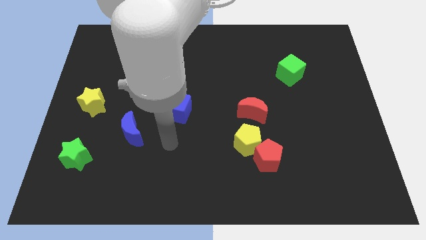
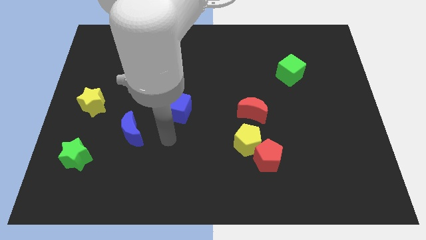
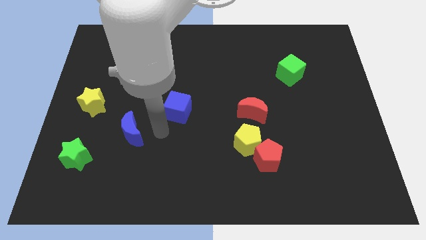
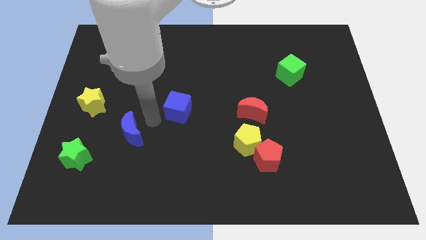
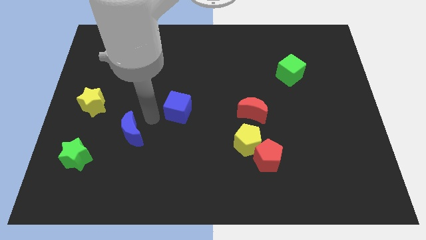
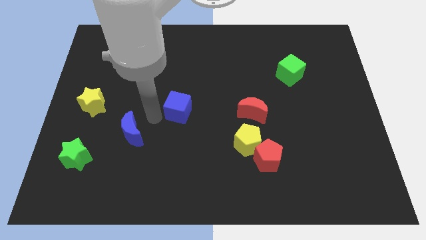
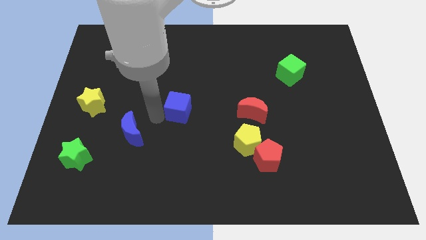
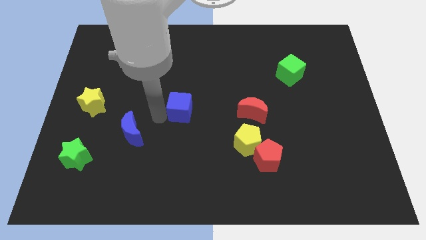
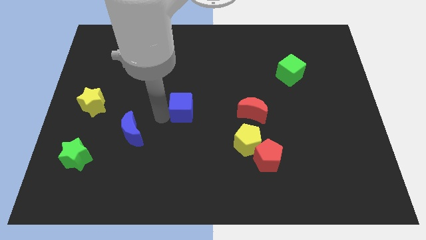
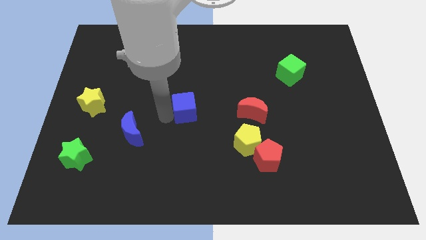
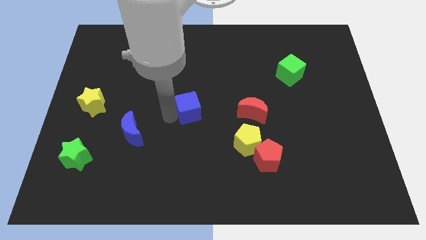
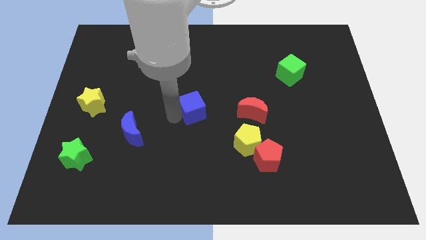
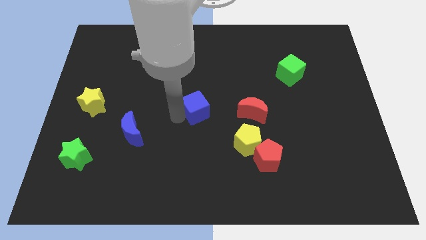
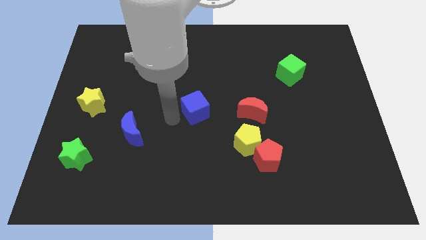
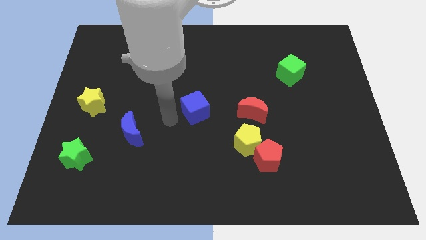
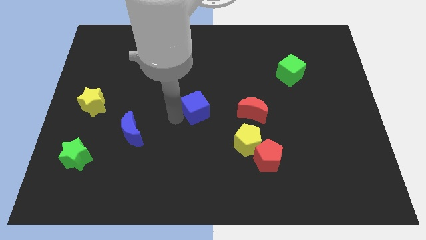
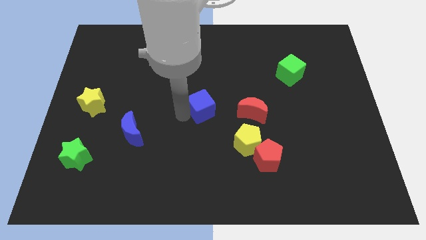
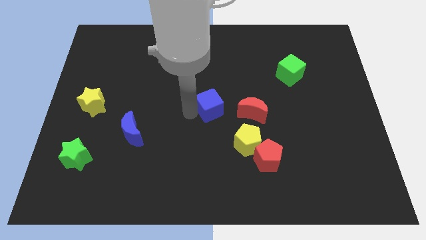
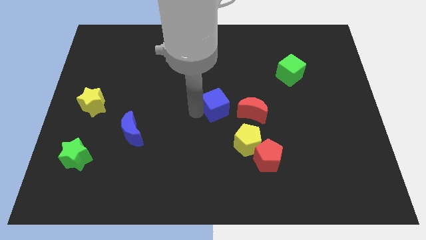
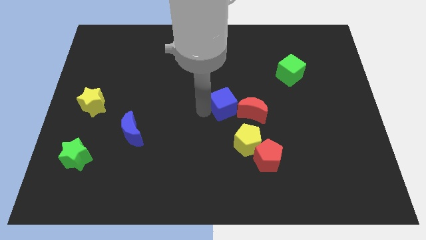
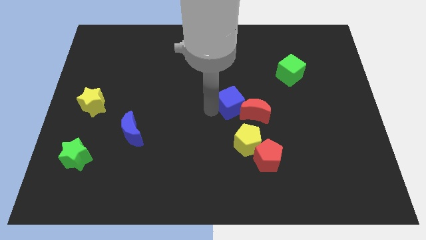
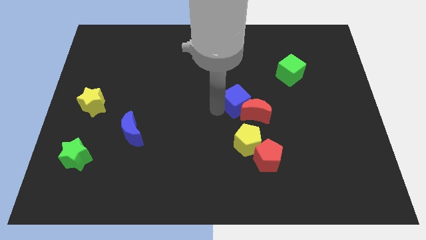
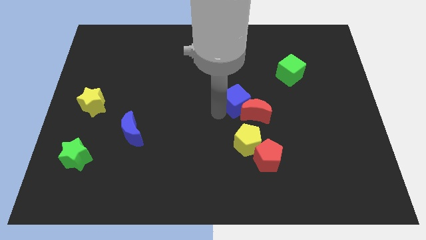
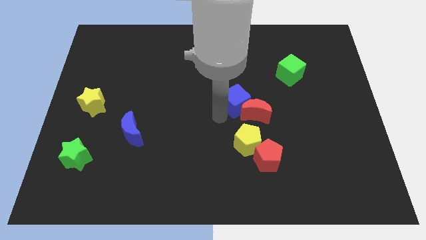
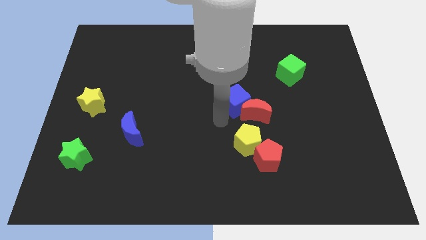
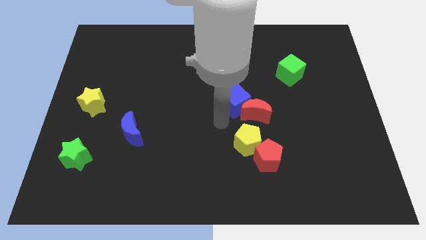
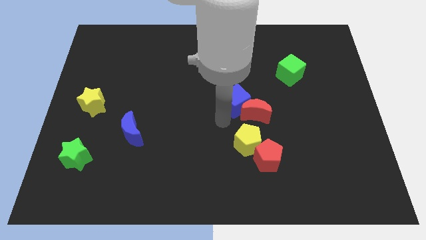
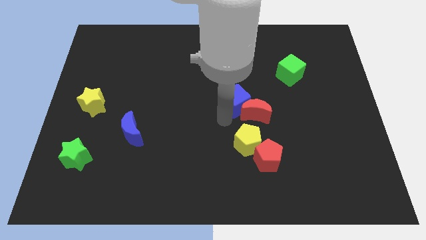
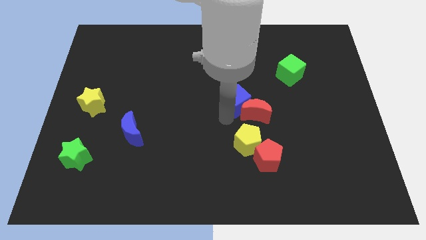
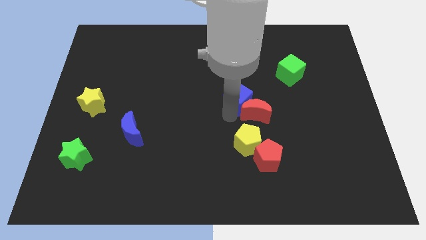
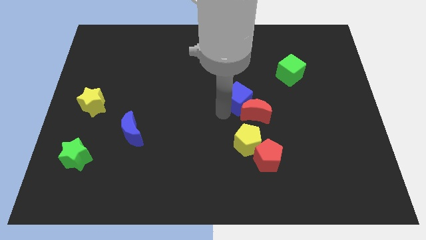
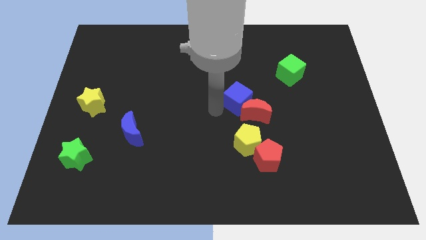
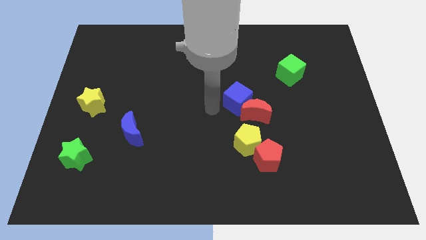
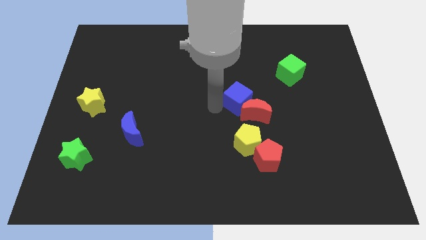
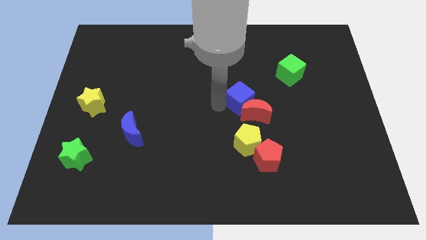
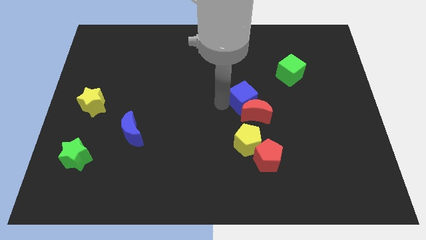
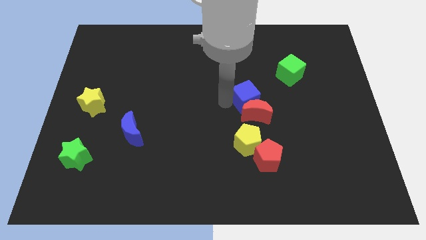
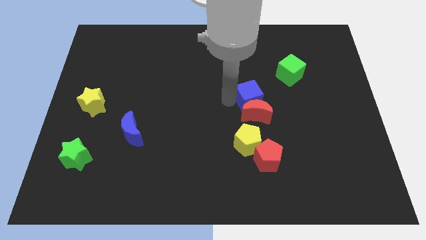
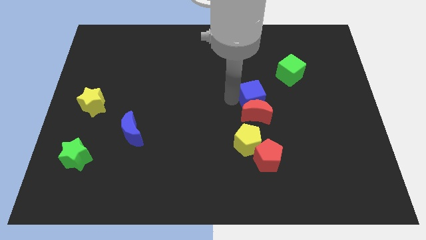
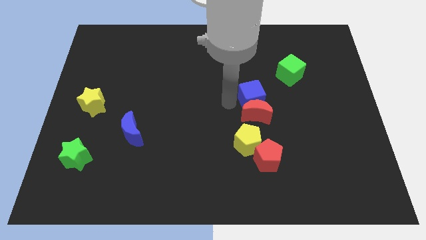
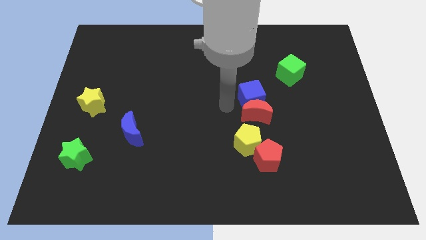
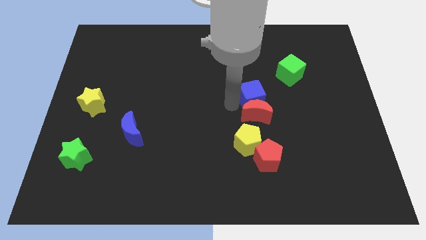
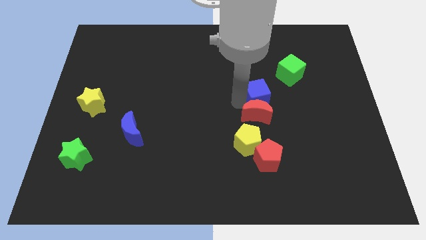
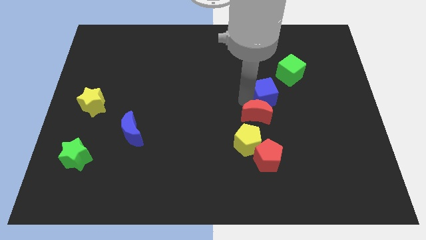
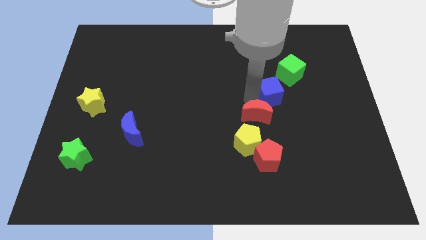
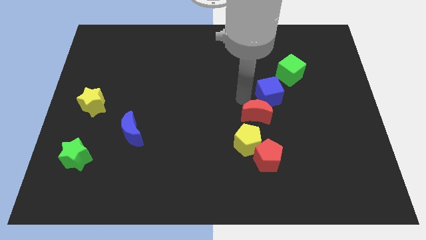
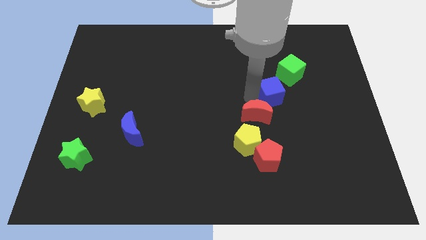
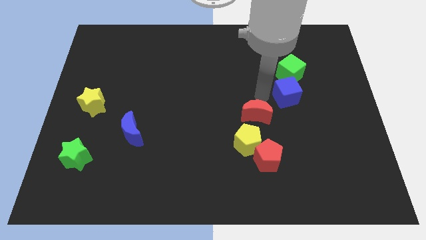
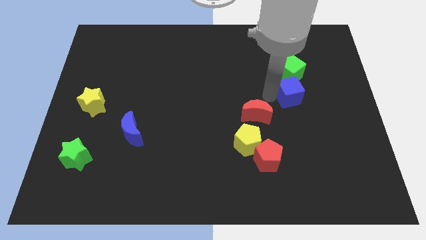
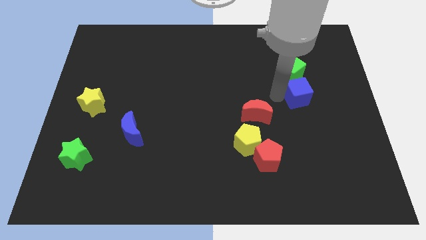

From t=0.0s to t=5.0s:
move the blue cube diagonally down and to the right of the green cube

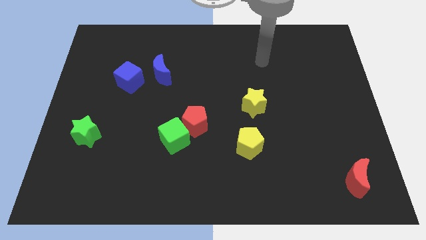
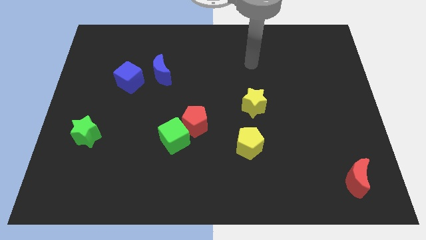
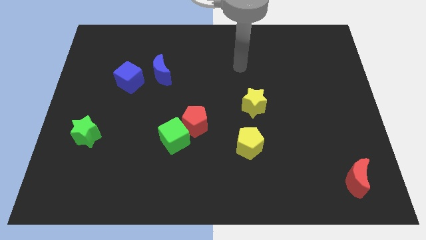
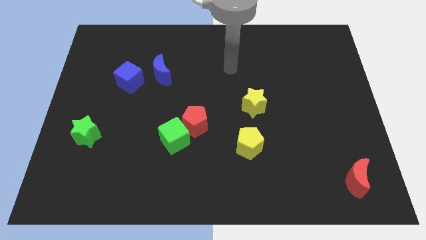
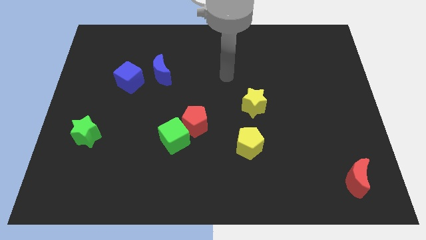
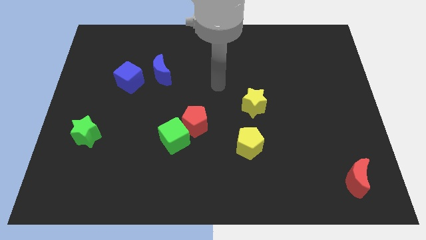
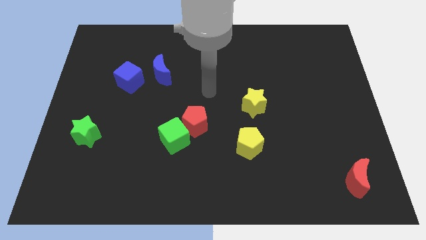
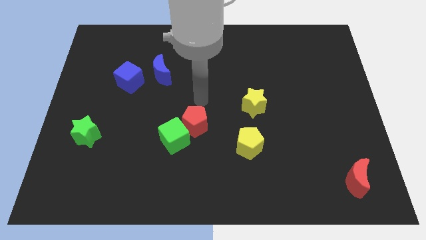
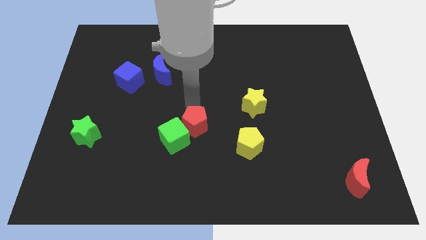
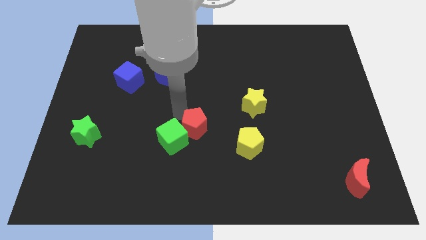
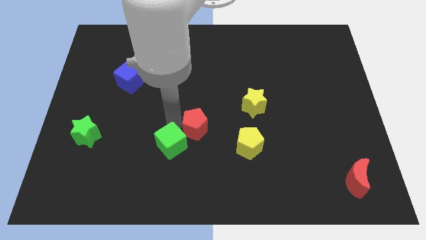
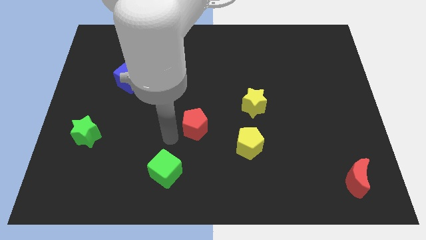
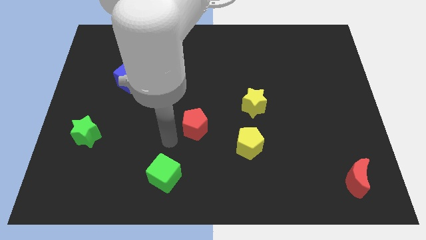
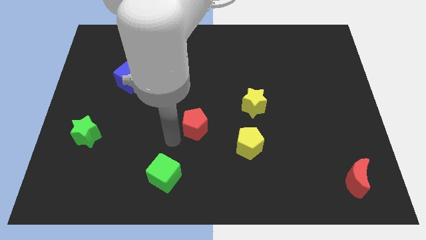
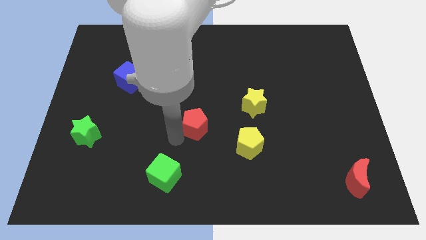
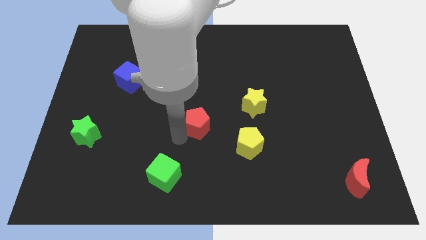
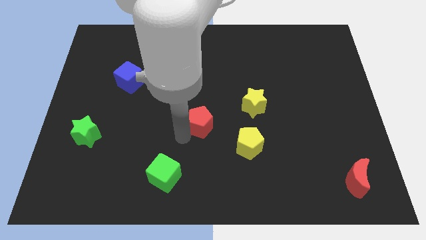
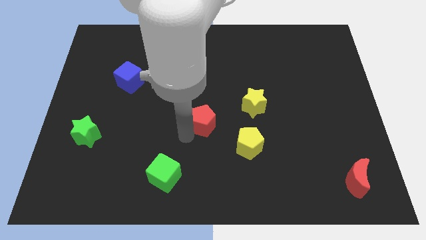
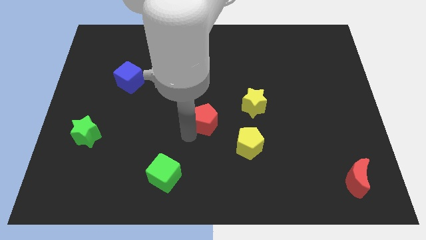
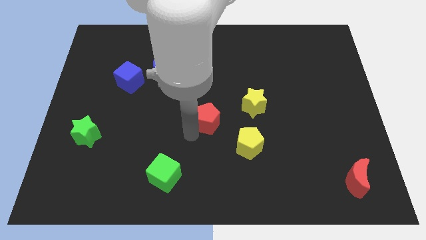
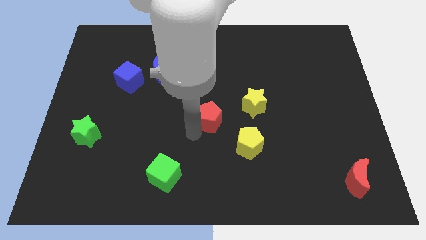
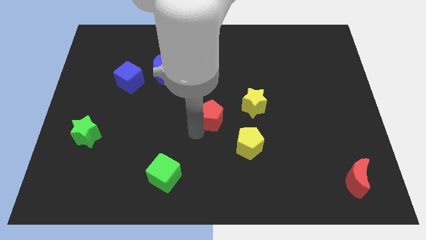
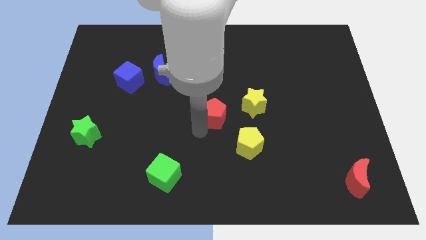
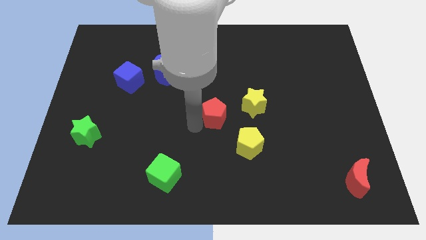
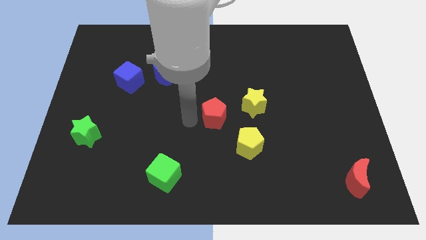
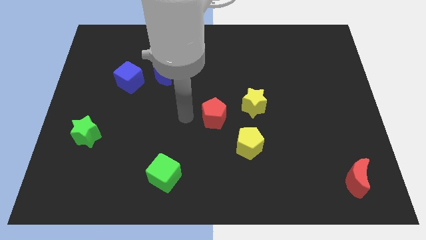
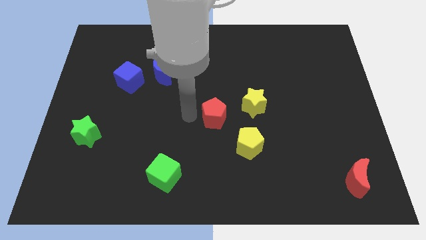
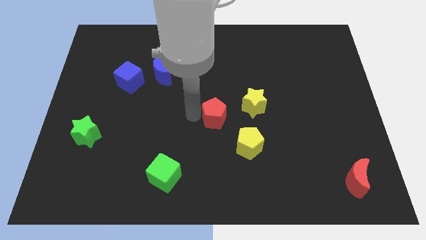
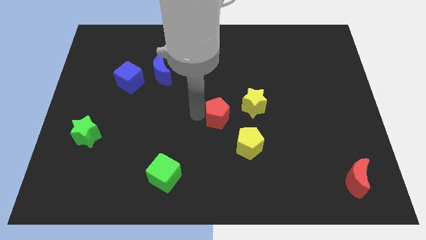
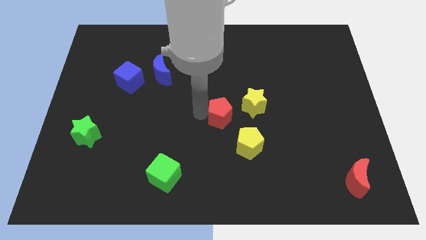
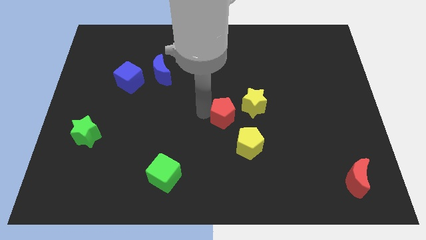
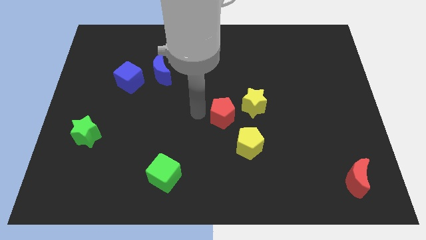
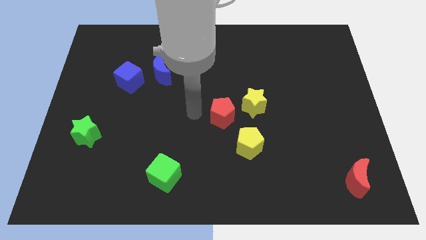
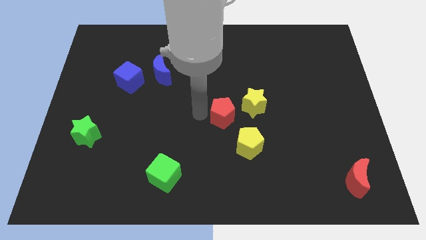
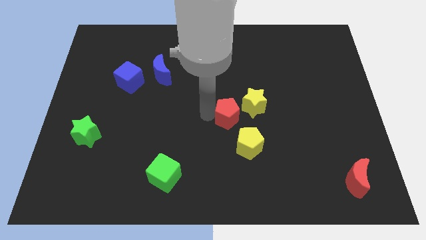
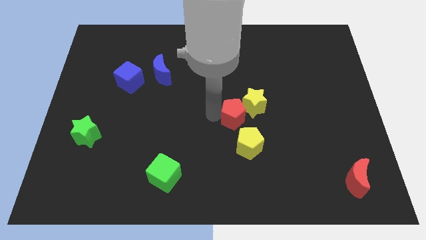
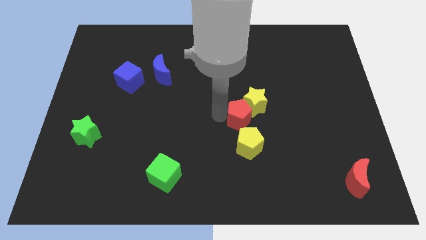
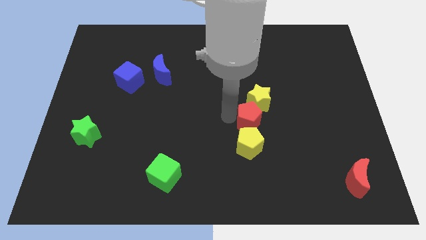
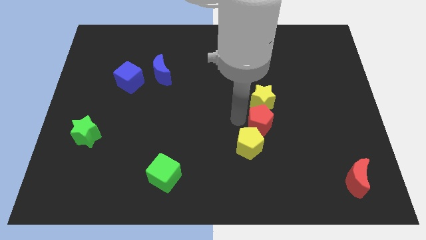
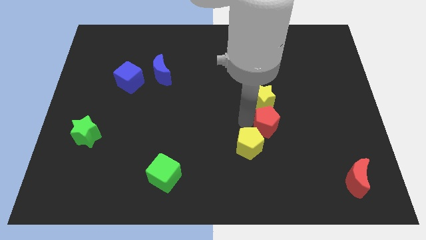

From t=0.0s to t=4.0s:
put the red pentagon to the bottom right side of the yellow star
